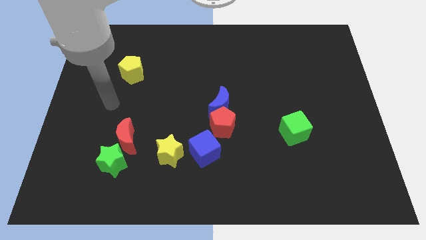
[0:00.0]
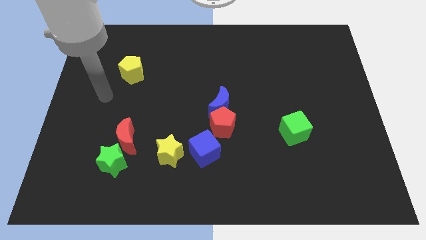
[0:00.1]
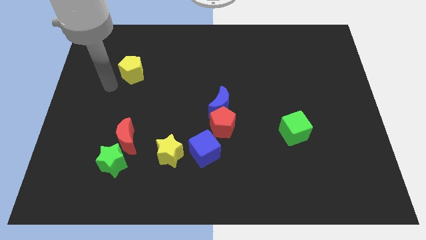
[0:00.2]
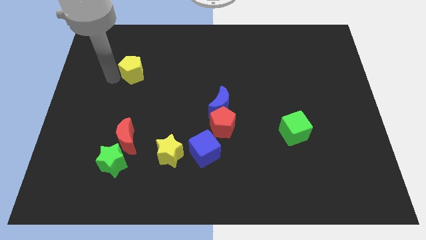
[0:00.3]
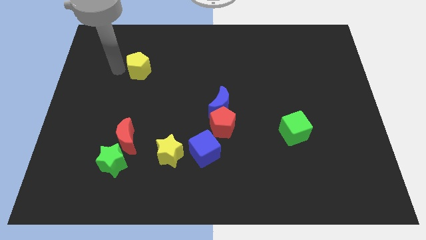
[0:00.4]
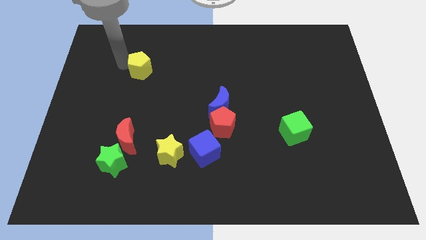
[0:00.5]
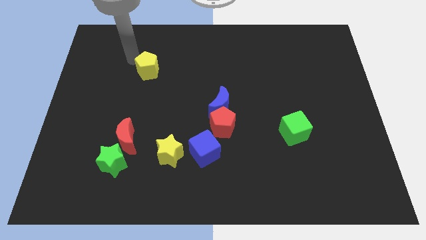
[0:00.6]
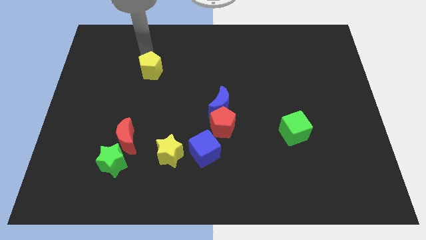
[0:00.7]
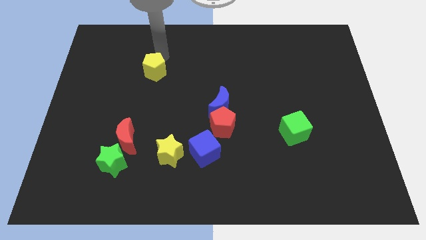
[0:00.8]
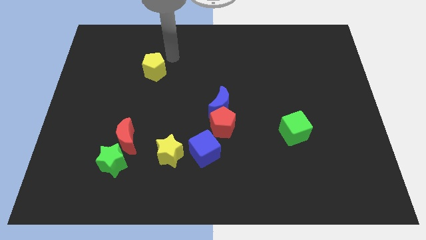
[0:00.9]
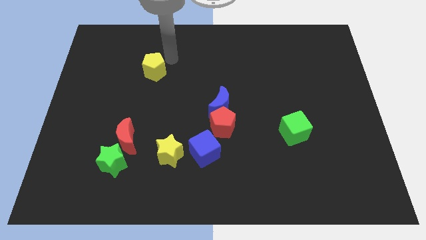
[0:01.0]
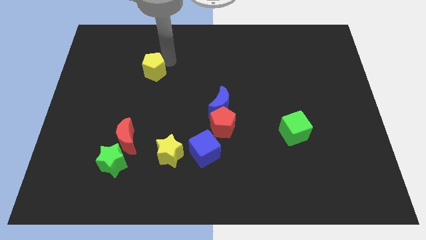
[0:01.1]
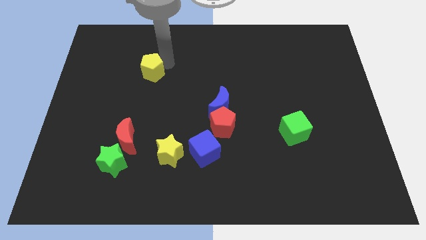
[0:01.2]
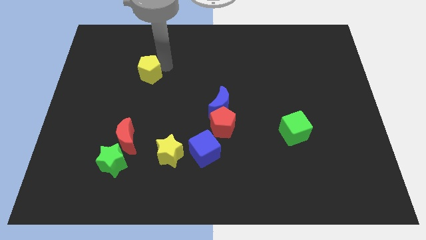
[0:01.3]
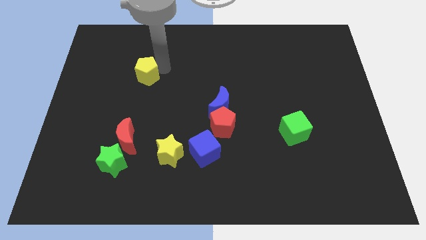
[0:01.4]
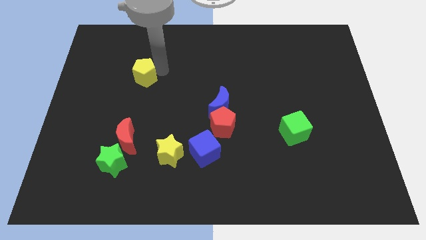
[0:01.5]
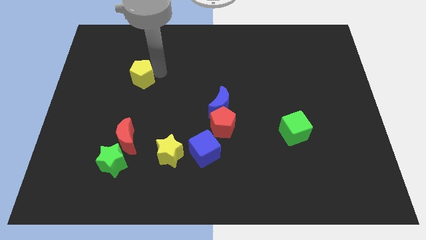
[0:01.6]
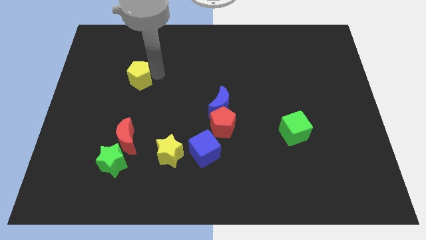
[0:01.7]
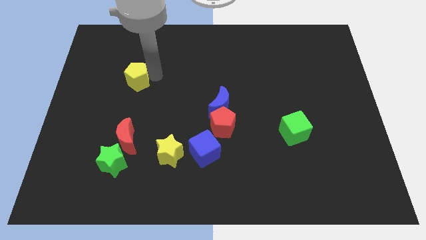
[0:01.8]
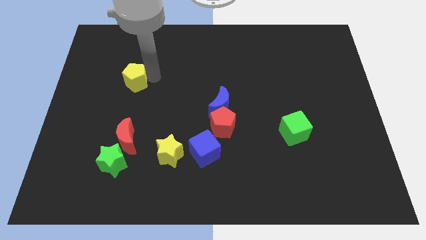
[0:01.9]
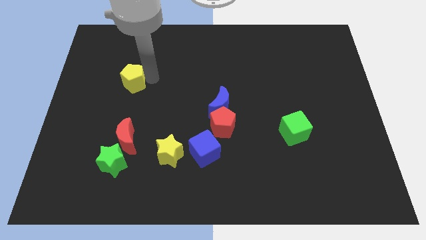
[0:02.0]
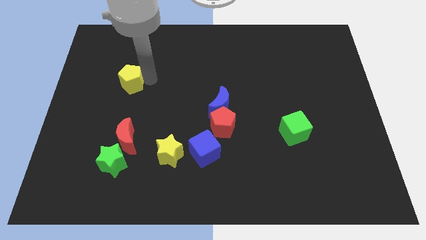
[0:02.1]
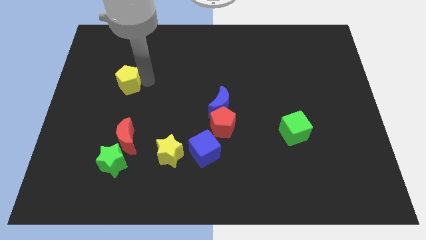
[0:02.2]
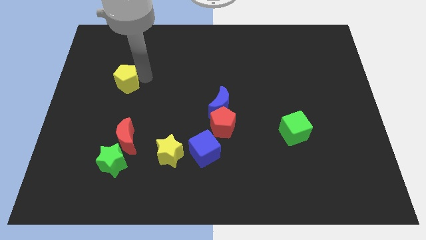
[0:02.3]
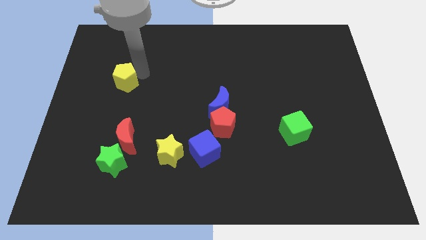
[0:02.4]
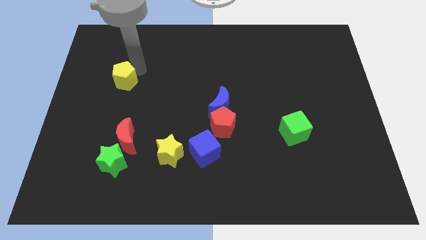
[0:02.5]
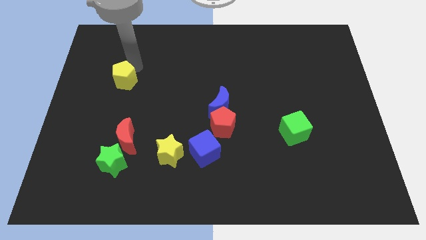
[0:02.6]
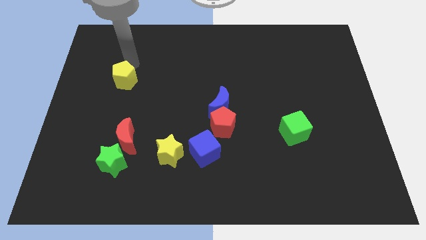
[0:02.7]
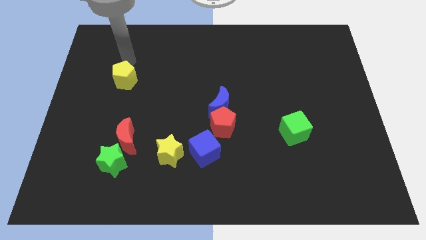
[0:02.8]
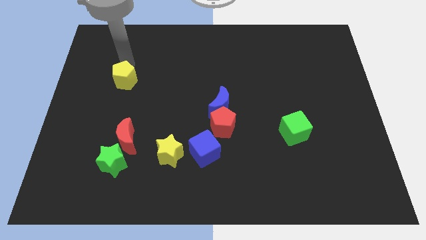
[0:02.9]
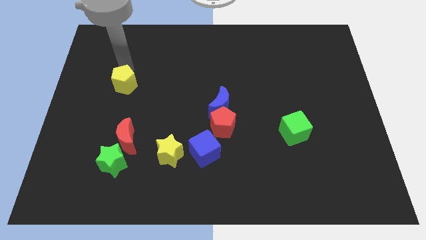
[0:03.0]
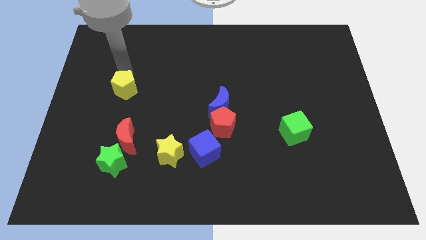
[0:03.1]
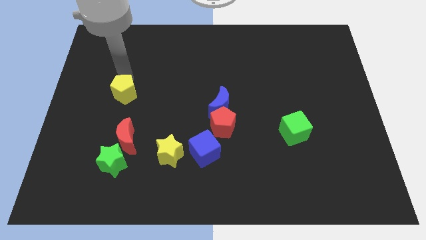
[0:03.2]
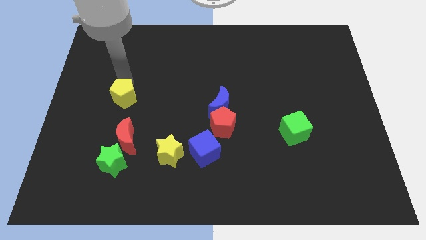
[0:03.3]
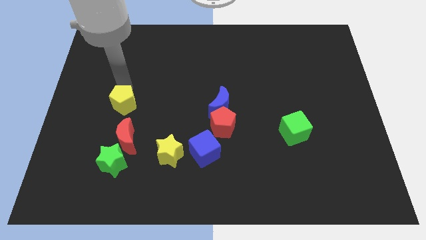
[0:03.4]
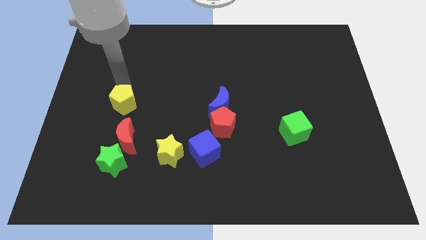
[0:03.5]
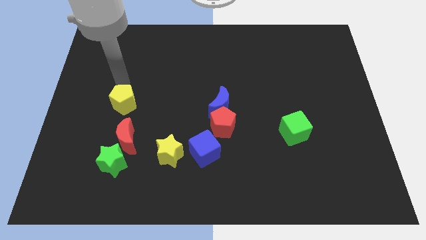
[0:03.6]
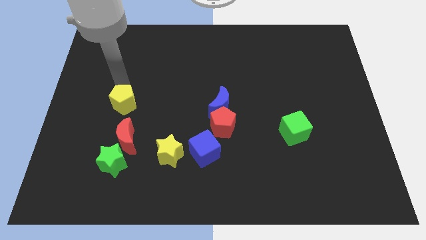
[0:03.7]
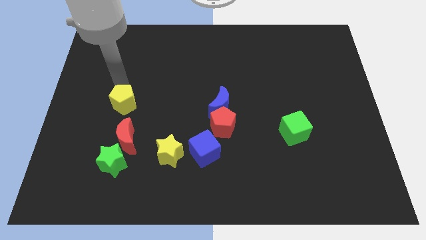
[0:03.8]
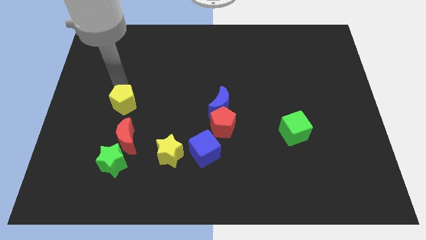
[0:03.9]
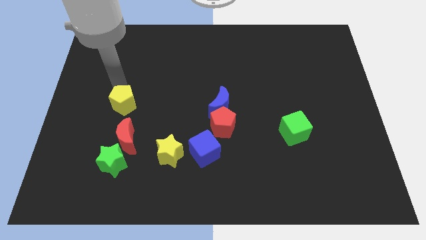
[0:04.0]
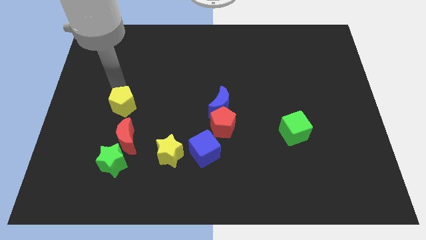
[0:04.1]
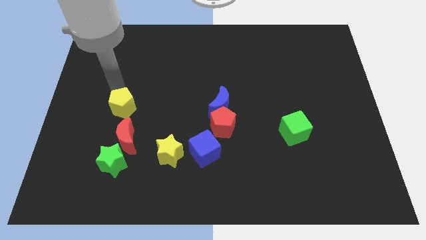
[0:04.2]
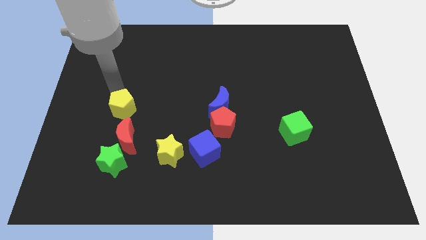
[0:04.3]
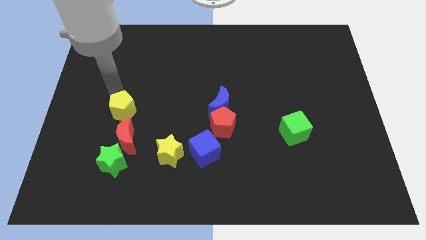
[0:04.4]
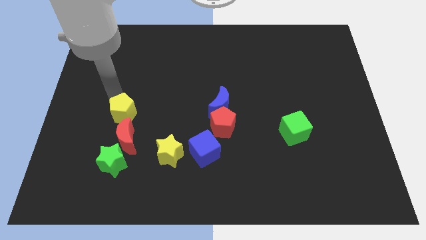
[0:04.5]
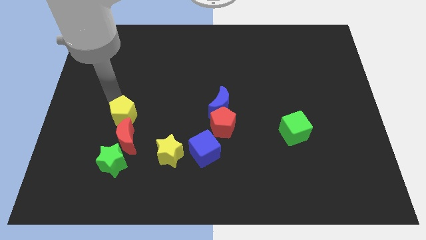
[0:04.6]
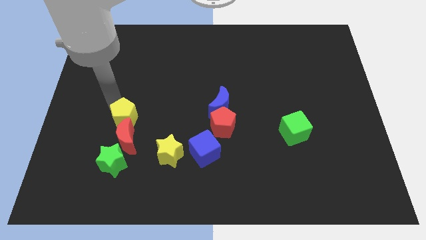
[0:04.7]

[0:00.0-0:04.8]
push the yellow pentagon close to the red moon

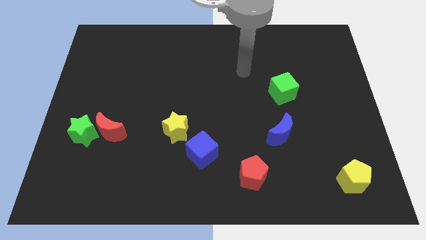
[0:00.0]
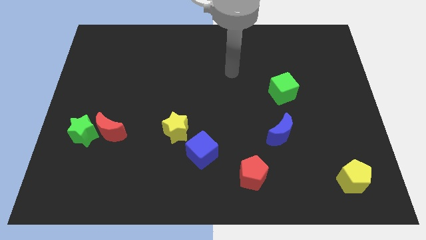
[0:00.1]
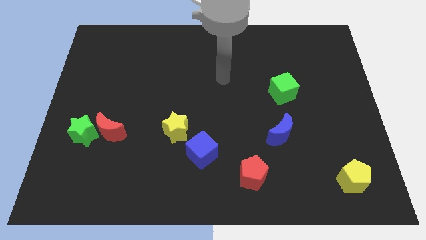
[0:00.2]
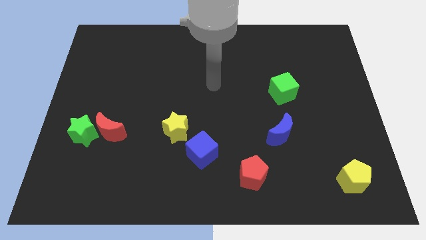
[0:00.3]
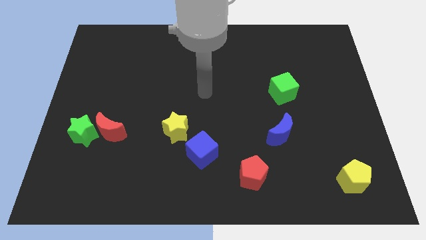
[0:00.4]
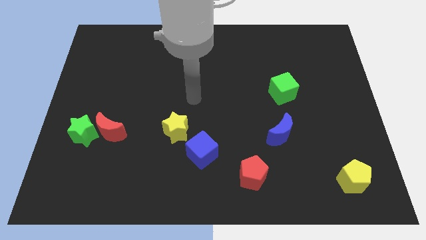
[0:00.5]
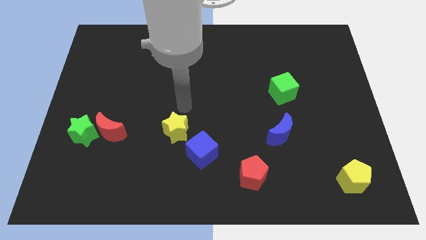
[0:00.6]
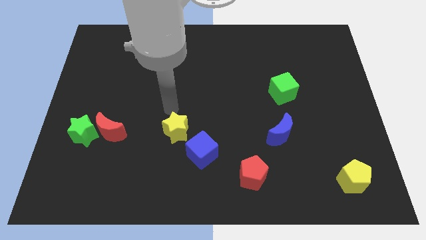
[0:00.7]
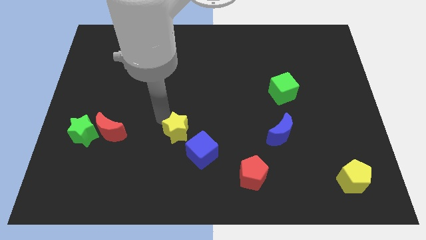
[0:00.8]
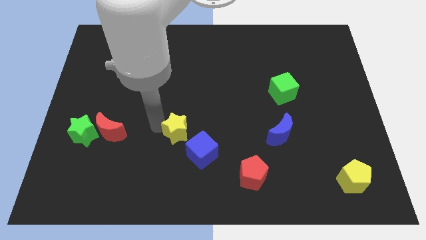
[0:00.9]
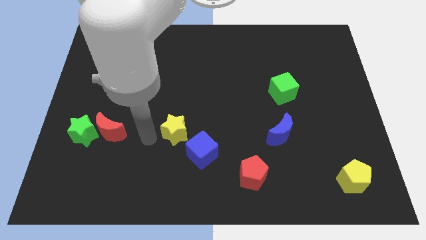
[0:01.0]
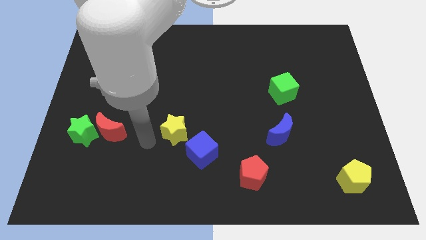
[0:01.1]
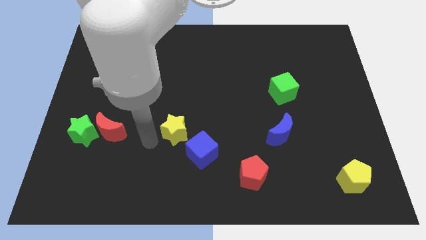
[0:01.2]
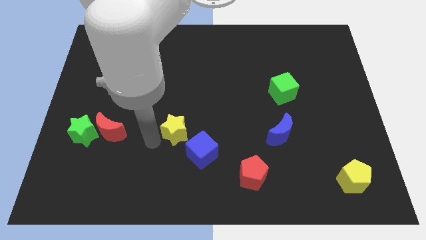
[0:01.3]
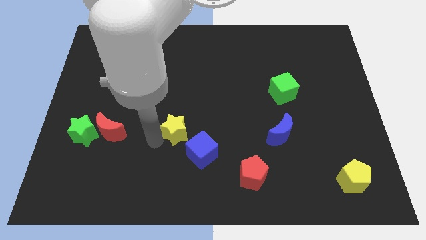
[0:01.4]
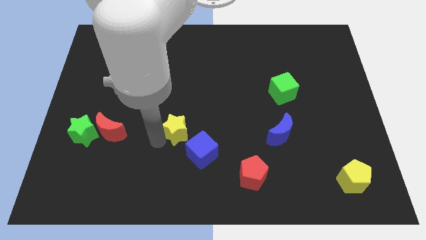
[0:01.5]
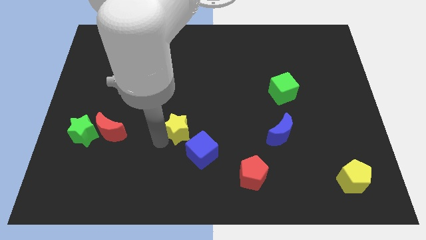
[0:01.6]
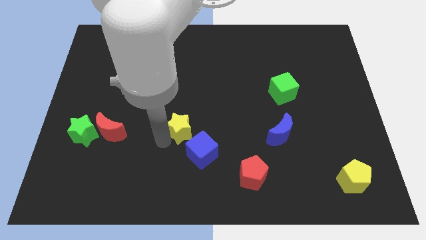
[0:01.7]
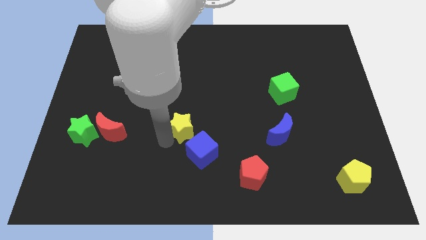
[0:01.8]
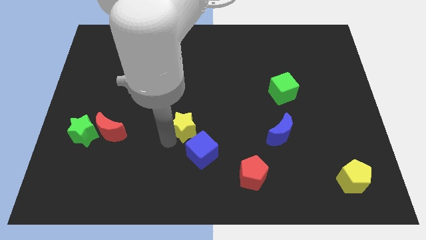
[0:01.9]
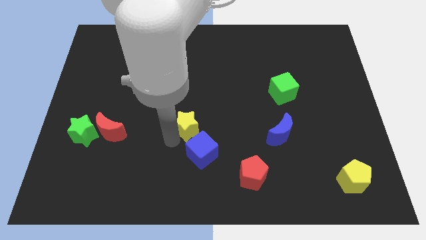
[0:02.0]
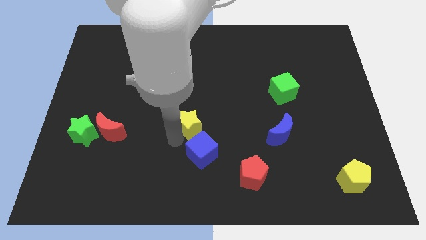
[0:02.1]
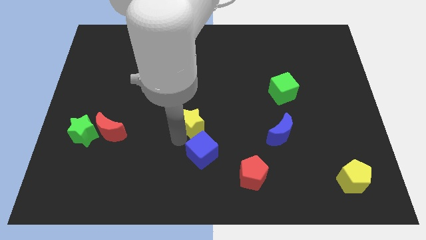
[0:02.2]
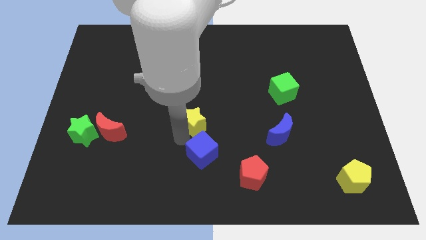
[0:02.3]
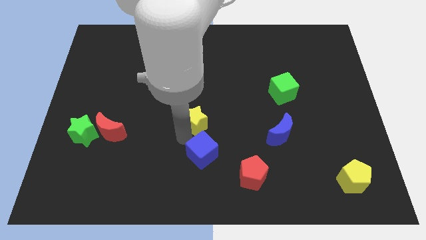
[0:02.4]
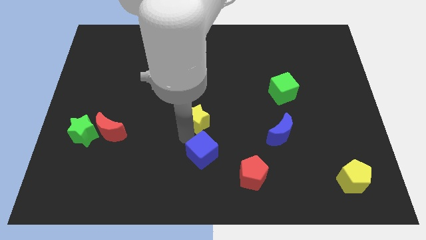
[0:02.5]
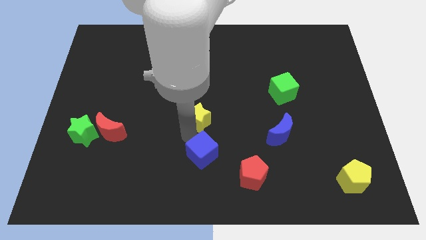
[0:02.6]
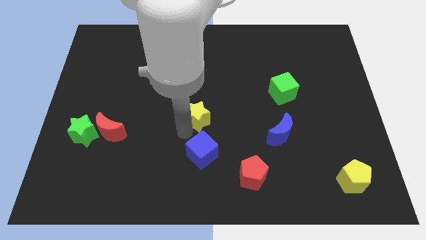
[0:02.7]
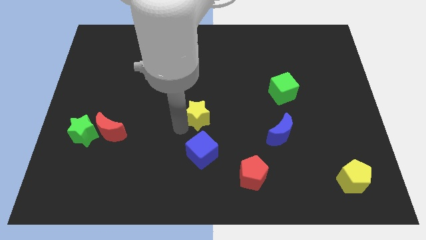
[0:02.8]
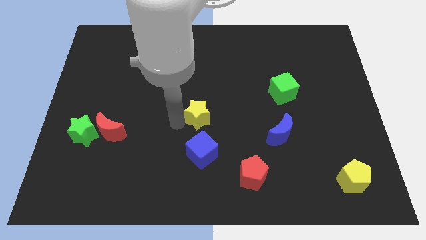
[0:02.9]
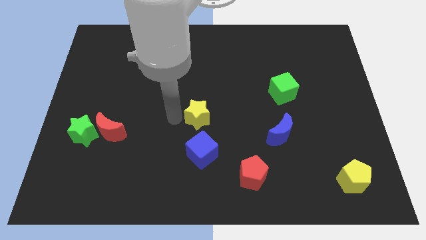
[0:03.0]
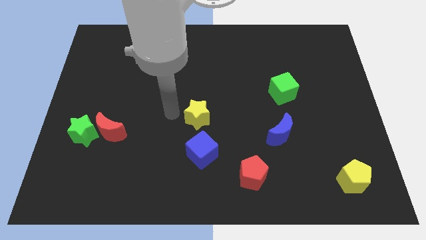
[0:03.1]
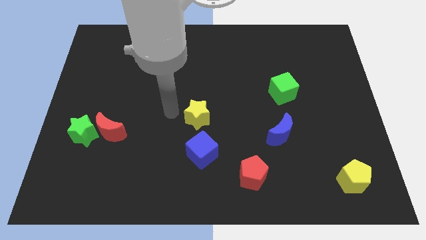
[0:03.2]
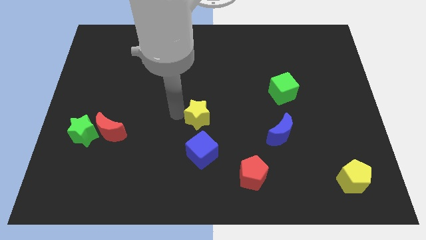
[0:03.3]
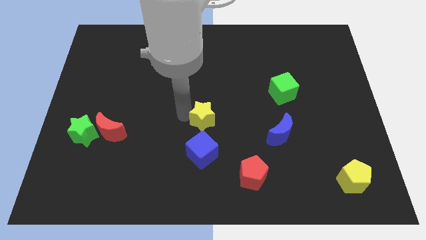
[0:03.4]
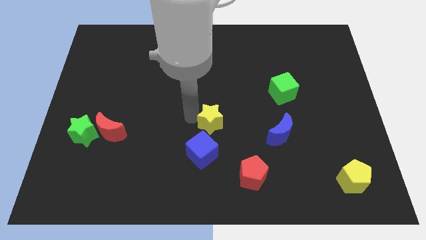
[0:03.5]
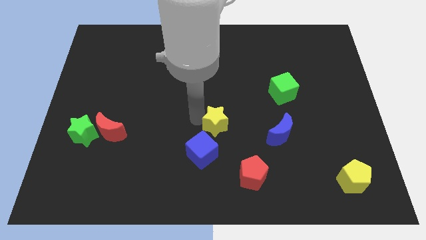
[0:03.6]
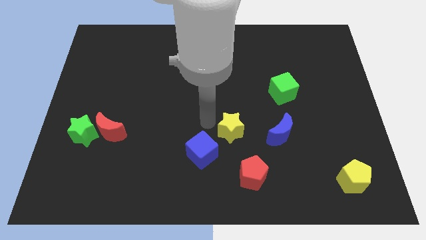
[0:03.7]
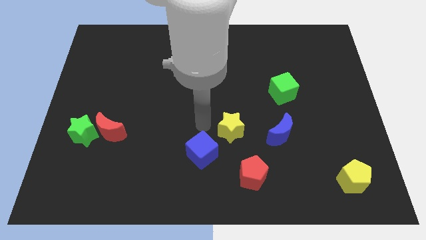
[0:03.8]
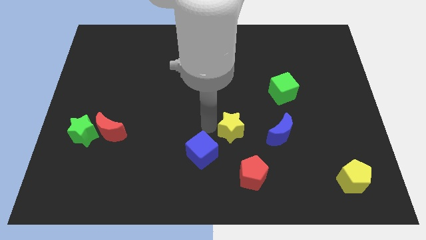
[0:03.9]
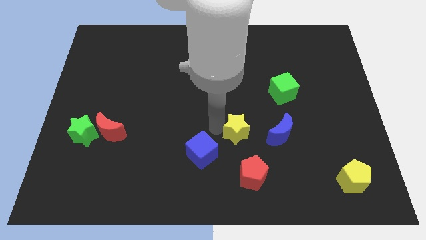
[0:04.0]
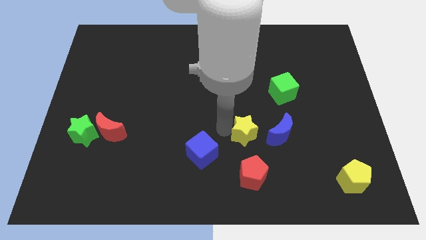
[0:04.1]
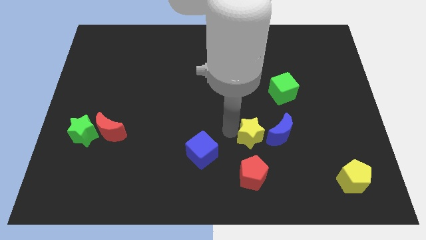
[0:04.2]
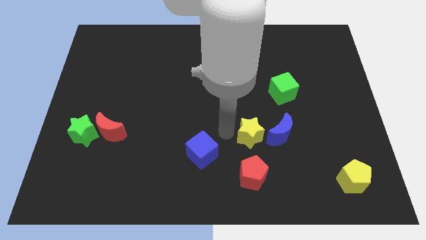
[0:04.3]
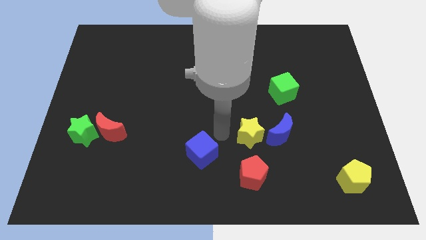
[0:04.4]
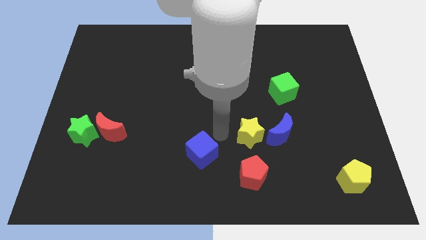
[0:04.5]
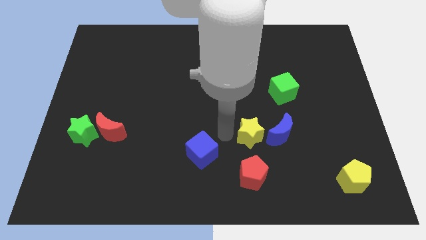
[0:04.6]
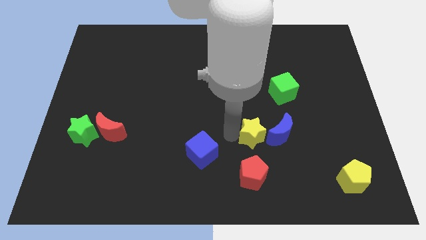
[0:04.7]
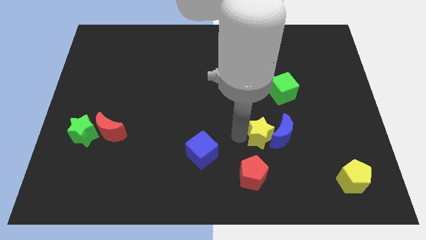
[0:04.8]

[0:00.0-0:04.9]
move the yellow star towards the blue moon
